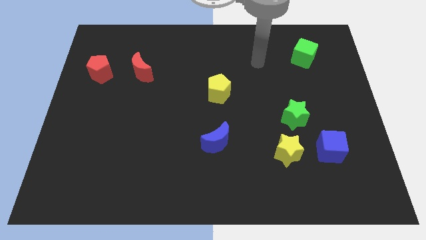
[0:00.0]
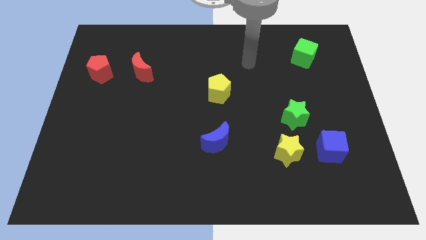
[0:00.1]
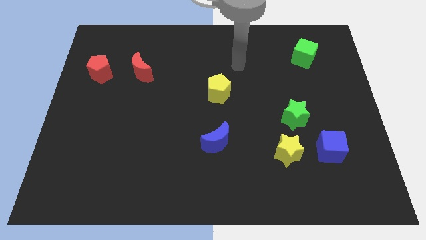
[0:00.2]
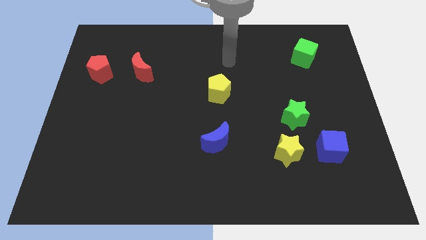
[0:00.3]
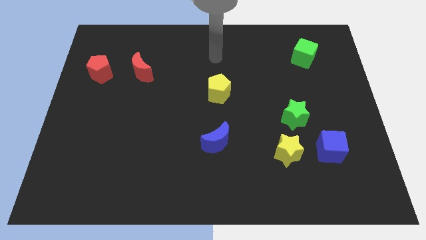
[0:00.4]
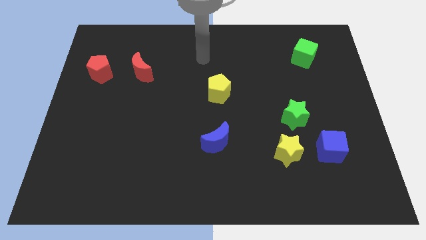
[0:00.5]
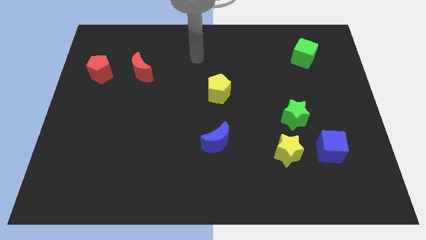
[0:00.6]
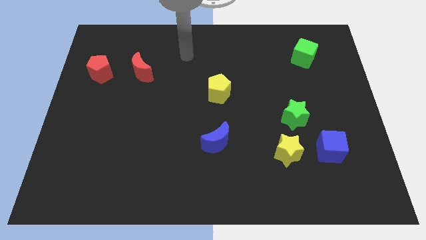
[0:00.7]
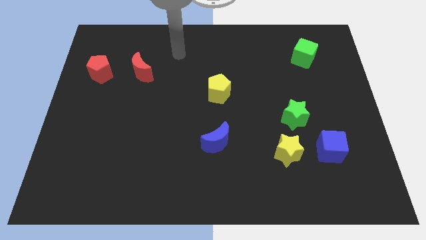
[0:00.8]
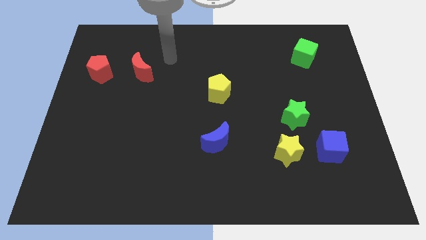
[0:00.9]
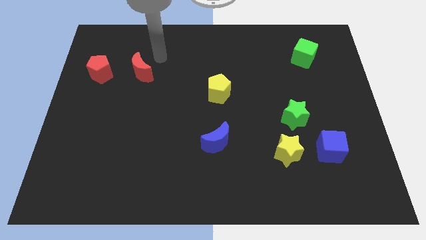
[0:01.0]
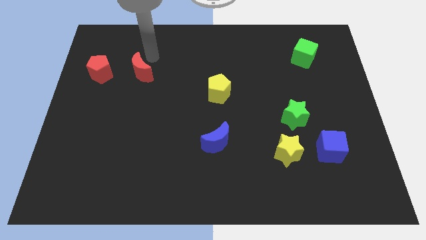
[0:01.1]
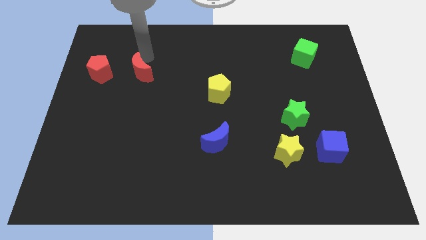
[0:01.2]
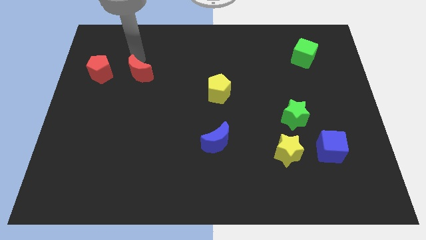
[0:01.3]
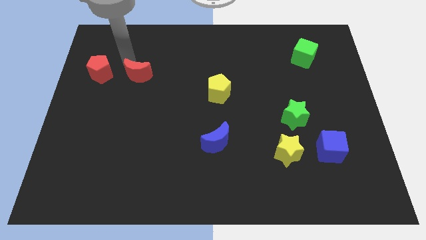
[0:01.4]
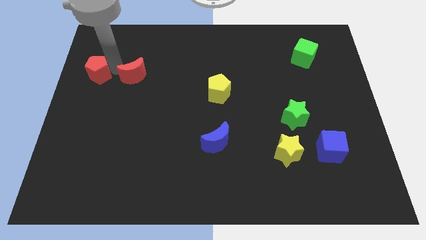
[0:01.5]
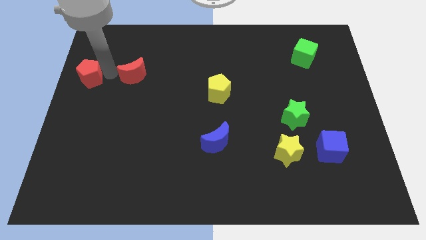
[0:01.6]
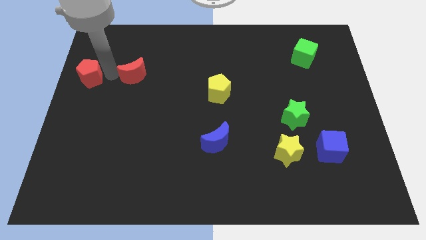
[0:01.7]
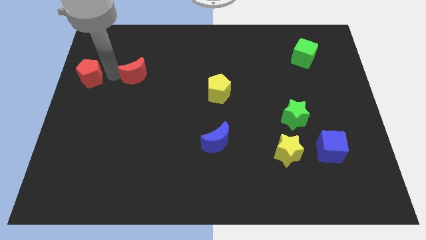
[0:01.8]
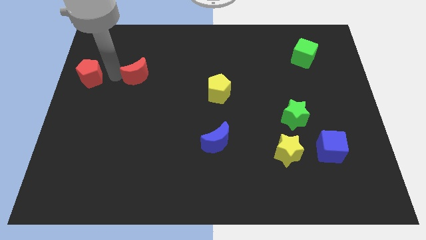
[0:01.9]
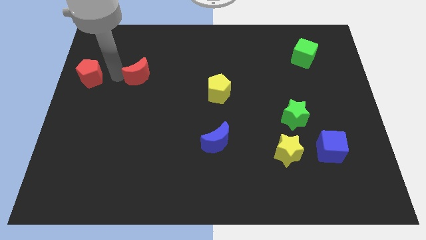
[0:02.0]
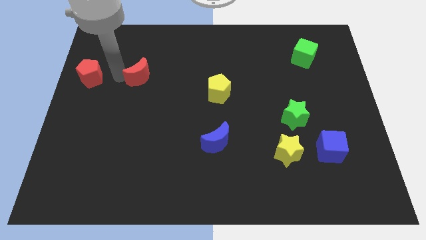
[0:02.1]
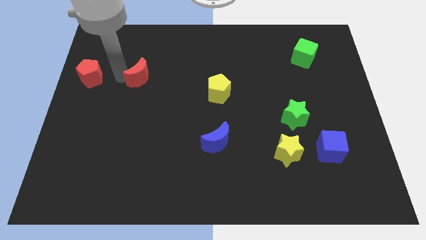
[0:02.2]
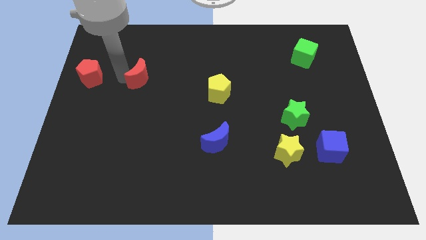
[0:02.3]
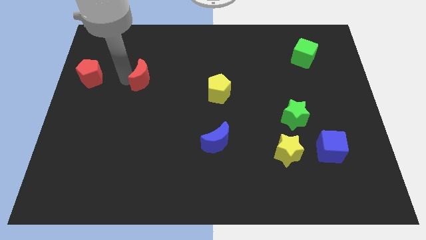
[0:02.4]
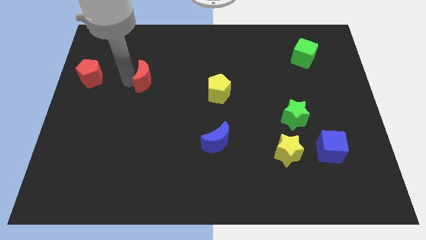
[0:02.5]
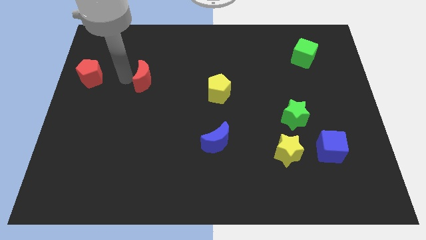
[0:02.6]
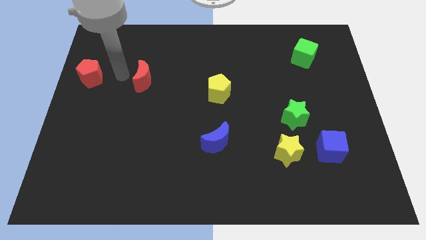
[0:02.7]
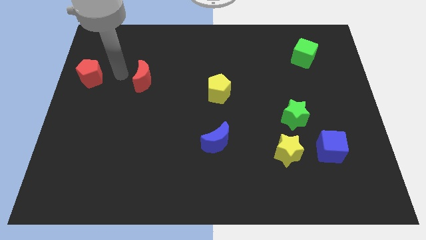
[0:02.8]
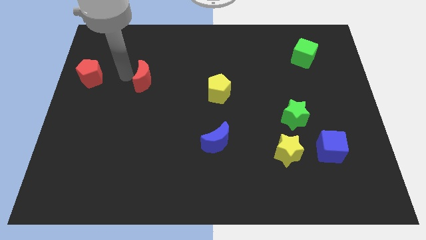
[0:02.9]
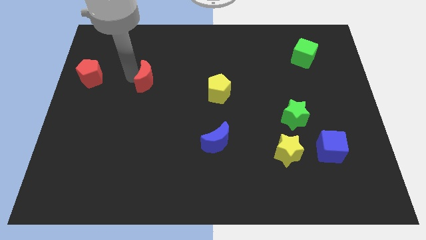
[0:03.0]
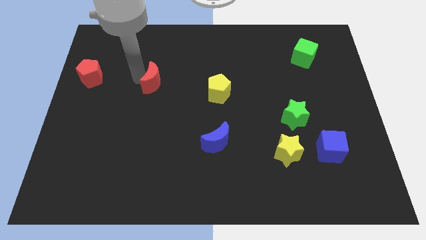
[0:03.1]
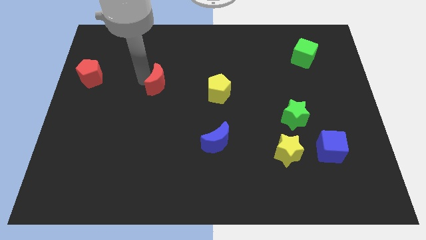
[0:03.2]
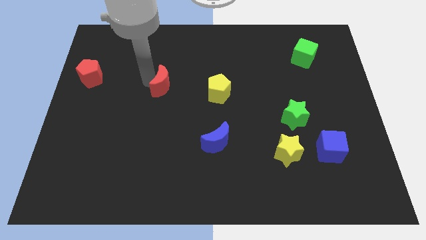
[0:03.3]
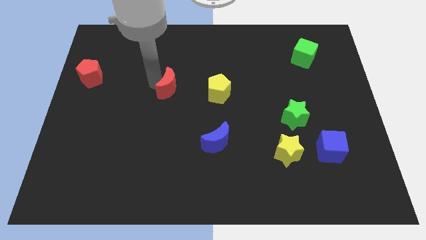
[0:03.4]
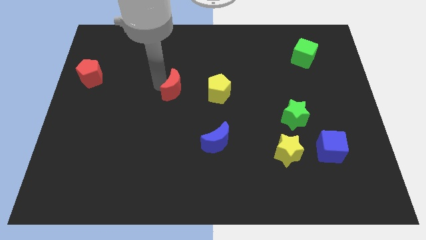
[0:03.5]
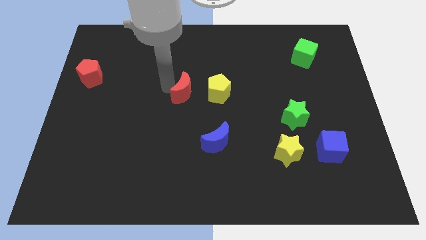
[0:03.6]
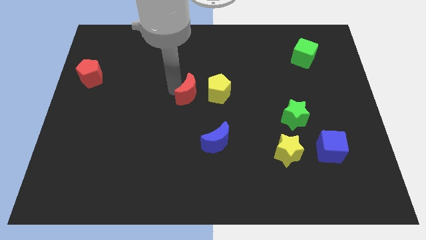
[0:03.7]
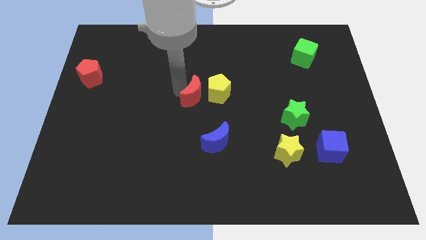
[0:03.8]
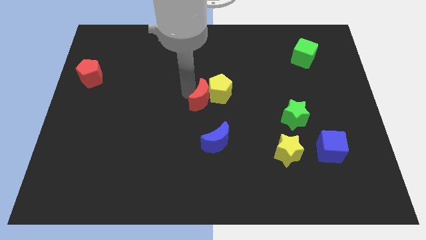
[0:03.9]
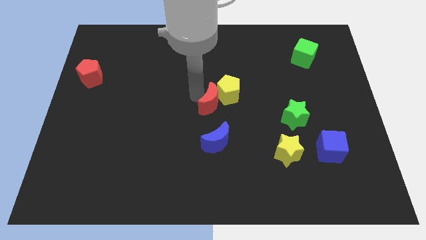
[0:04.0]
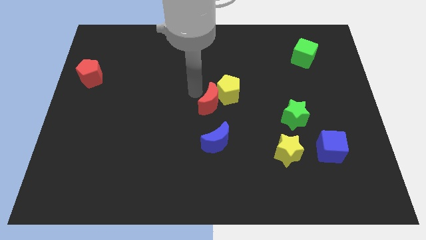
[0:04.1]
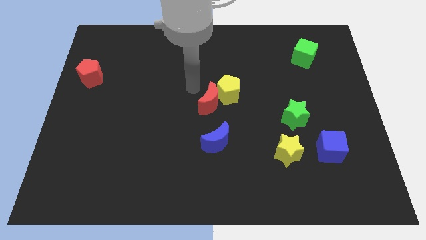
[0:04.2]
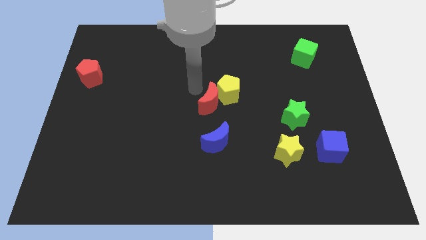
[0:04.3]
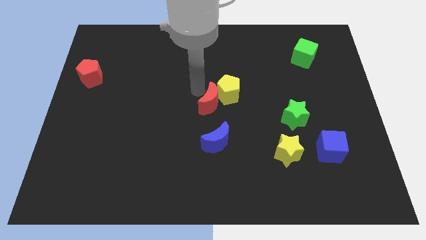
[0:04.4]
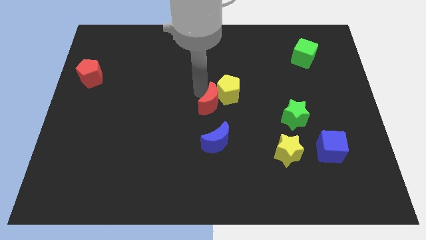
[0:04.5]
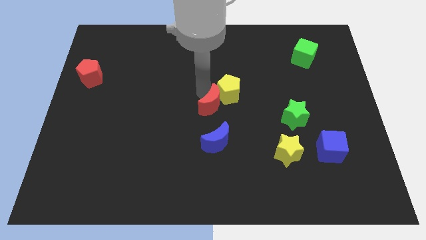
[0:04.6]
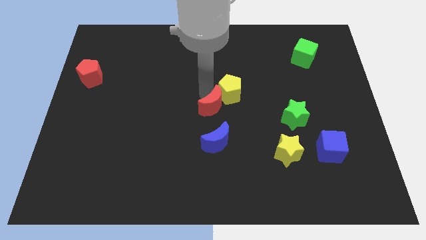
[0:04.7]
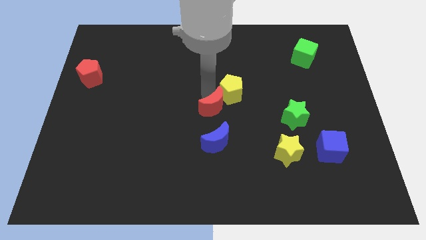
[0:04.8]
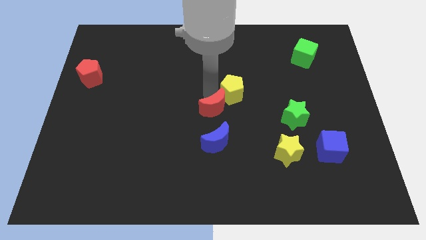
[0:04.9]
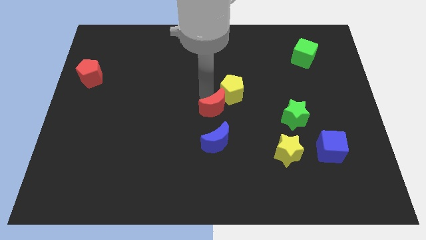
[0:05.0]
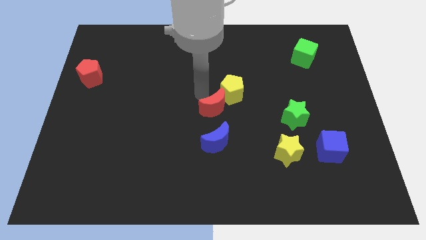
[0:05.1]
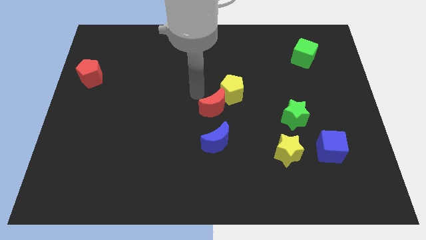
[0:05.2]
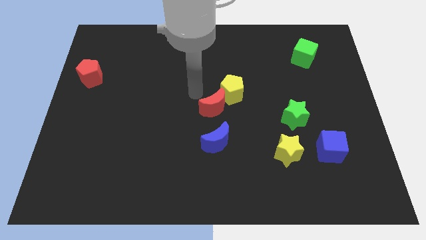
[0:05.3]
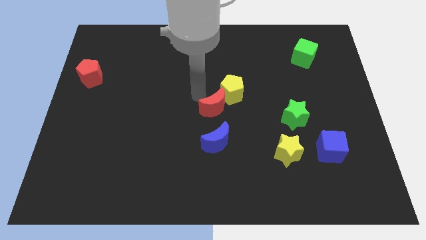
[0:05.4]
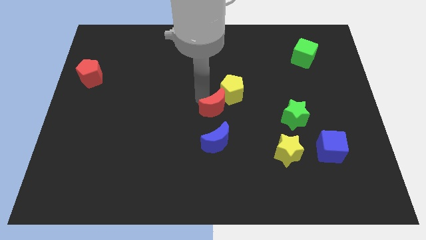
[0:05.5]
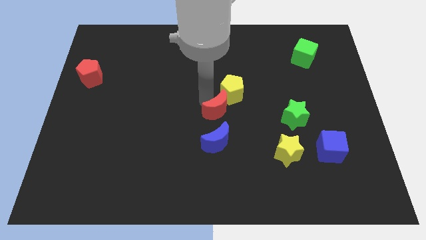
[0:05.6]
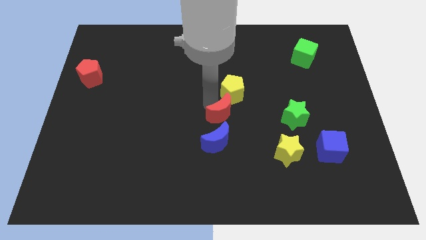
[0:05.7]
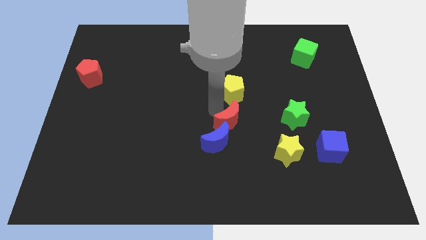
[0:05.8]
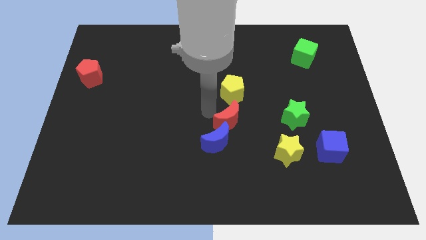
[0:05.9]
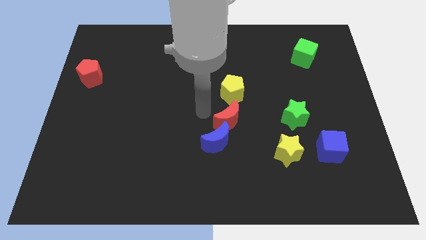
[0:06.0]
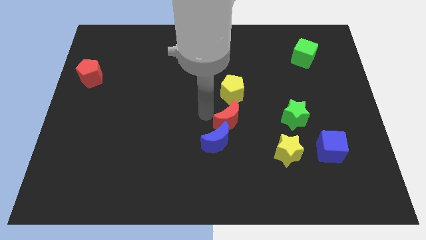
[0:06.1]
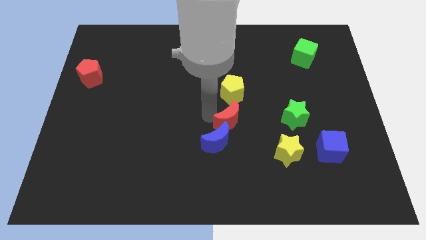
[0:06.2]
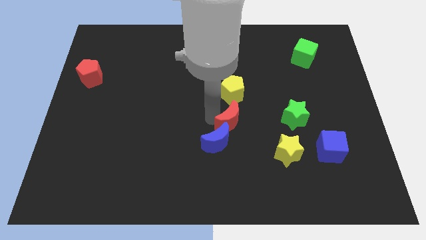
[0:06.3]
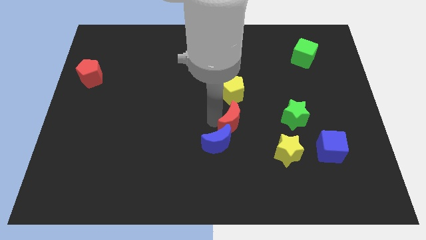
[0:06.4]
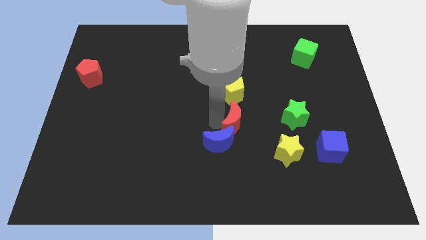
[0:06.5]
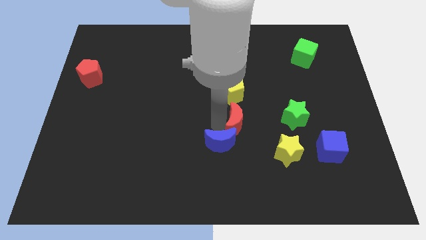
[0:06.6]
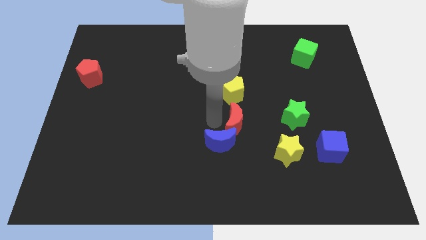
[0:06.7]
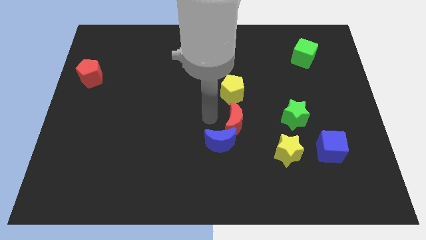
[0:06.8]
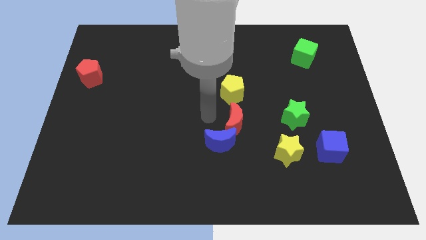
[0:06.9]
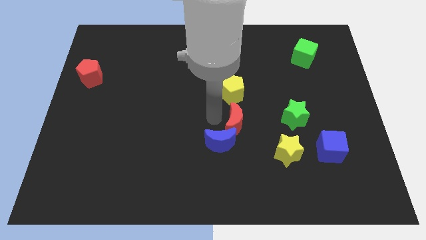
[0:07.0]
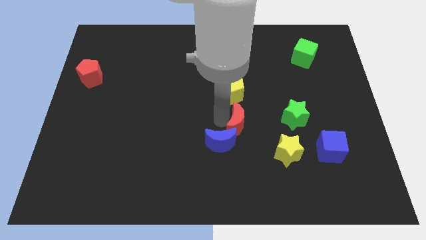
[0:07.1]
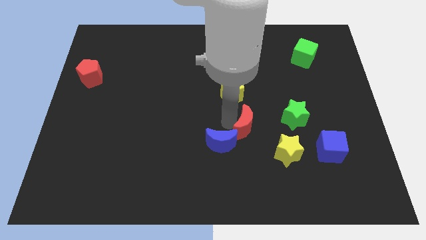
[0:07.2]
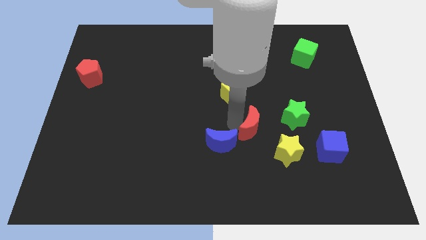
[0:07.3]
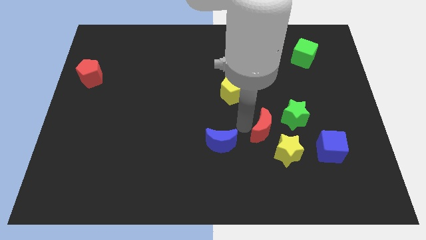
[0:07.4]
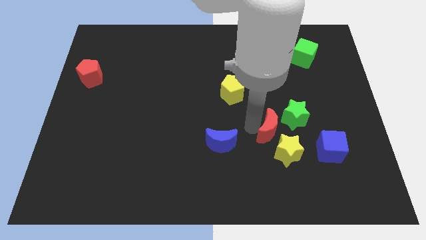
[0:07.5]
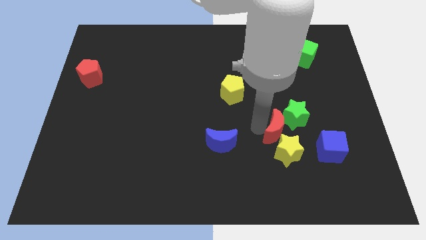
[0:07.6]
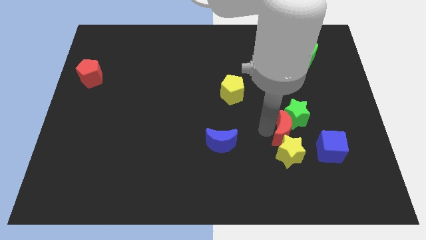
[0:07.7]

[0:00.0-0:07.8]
put the red moon diagonally up and to the right of the yellow star
